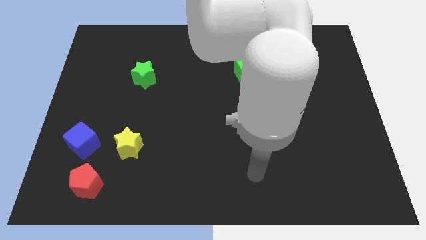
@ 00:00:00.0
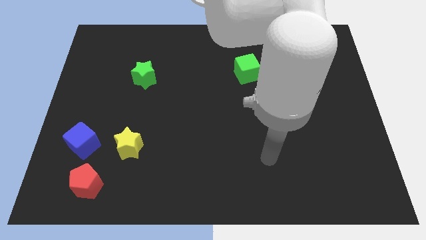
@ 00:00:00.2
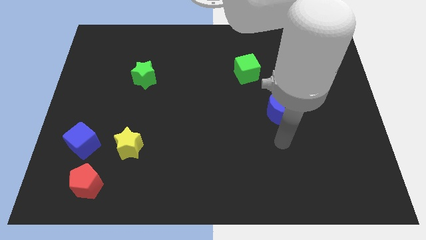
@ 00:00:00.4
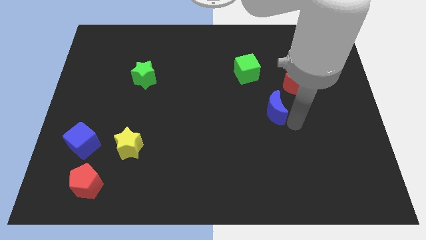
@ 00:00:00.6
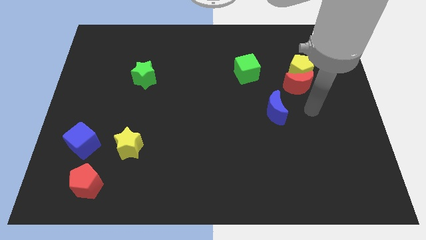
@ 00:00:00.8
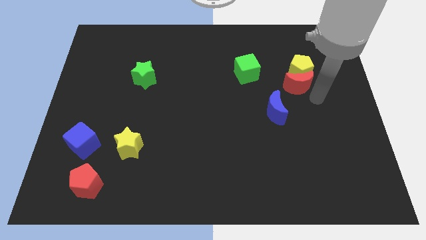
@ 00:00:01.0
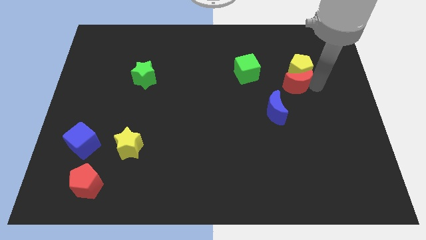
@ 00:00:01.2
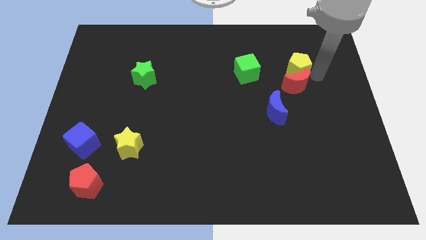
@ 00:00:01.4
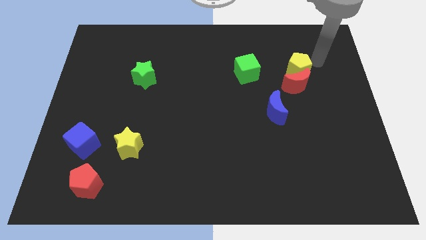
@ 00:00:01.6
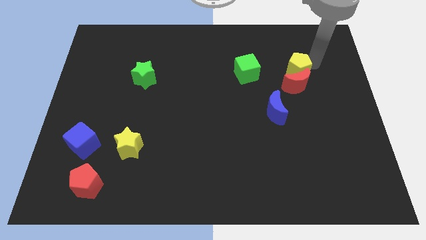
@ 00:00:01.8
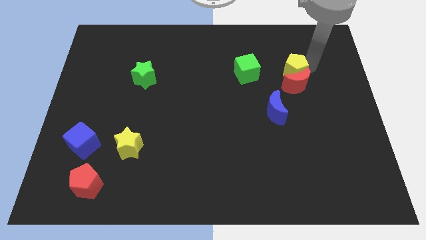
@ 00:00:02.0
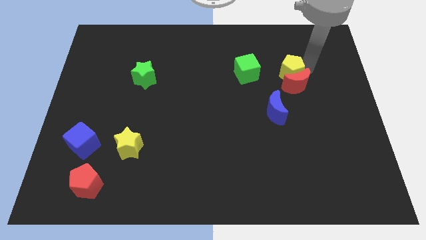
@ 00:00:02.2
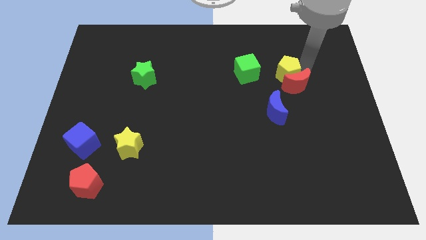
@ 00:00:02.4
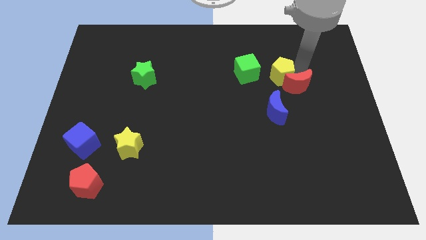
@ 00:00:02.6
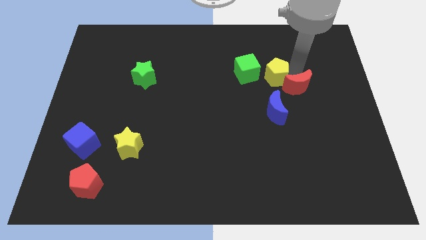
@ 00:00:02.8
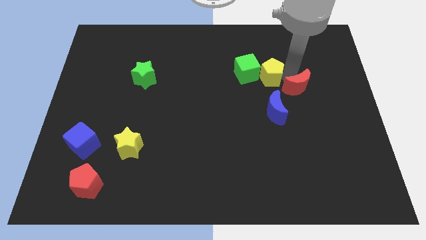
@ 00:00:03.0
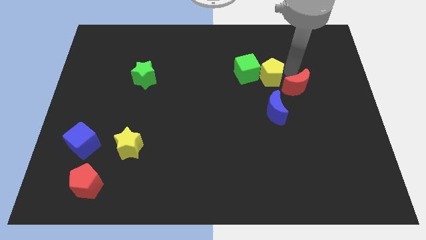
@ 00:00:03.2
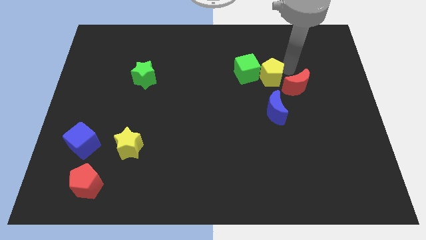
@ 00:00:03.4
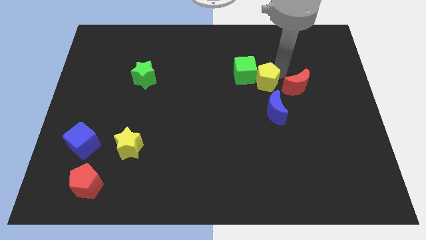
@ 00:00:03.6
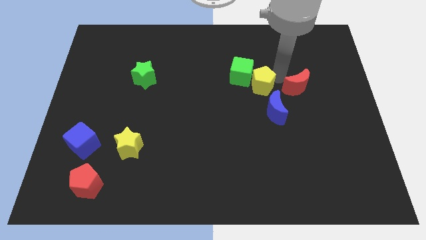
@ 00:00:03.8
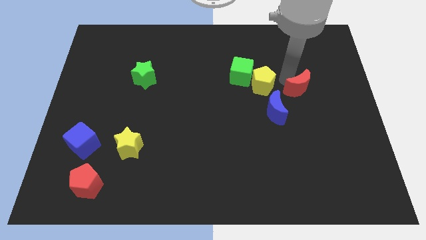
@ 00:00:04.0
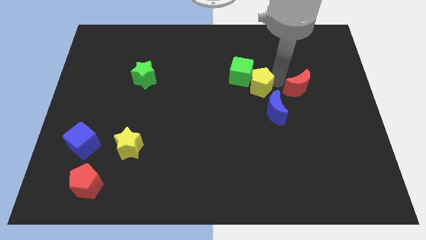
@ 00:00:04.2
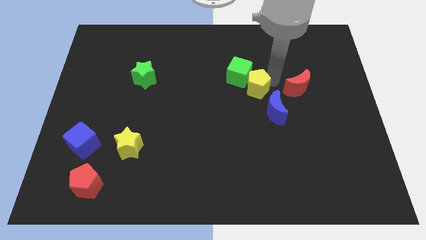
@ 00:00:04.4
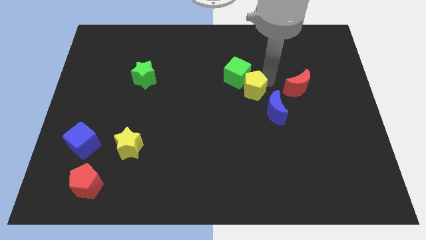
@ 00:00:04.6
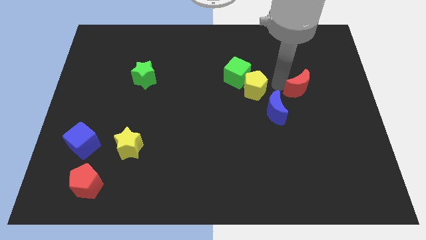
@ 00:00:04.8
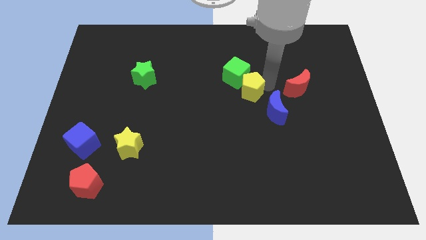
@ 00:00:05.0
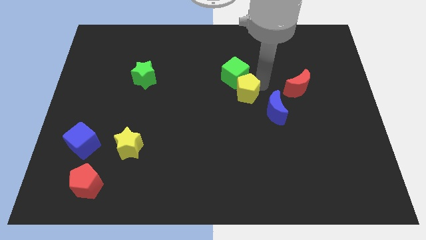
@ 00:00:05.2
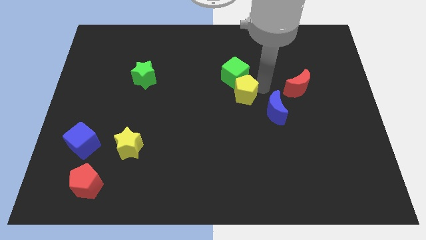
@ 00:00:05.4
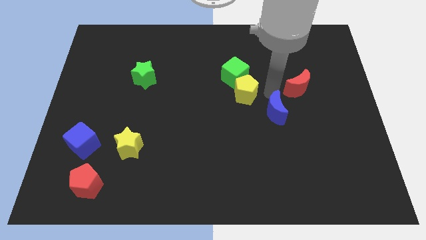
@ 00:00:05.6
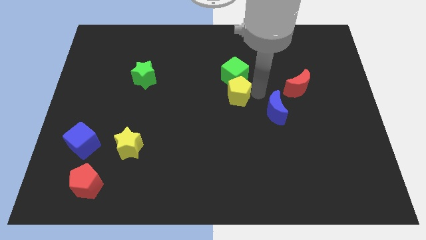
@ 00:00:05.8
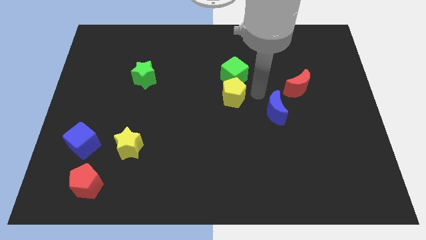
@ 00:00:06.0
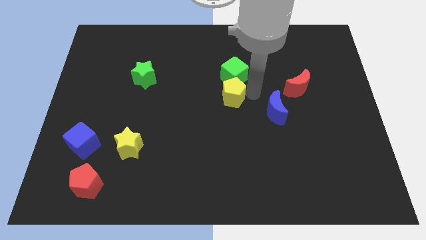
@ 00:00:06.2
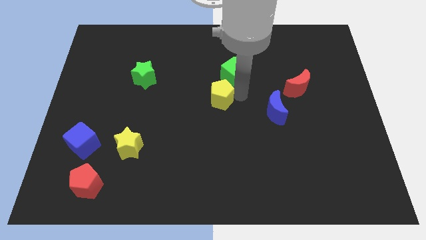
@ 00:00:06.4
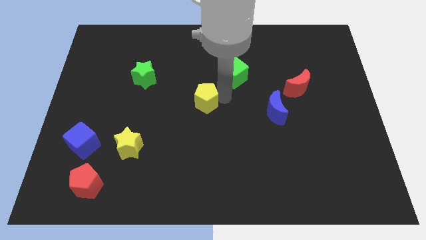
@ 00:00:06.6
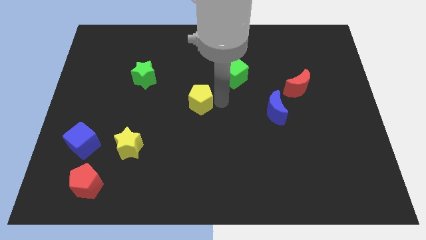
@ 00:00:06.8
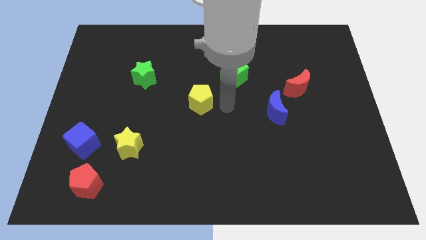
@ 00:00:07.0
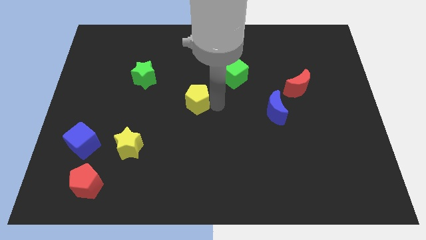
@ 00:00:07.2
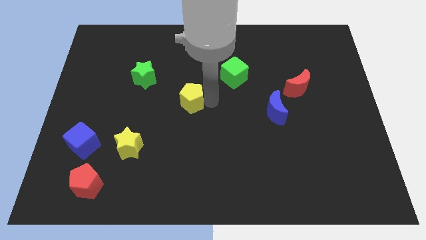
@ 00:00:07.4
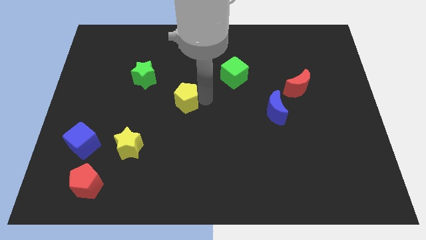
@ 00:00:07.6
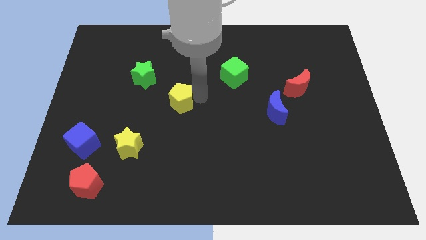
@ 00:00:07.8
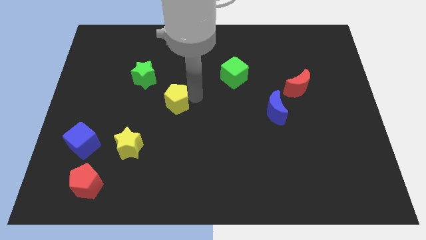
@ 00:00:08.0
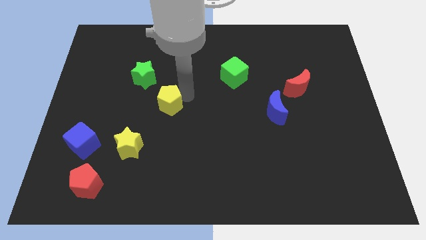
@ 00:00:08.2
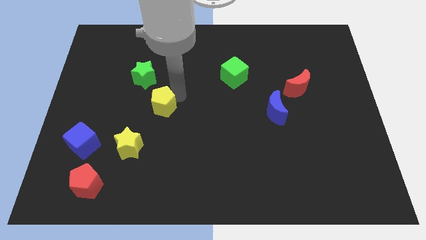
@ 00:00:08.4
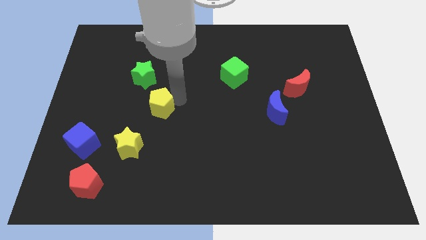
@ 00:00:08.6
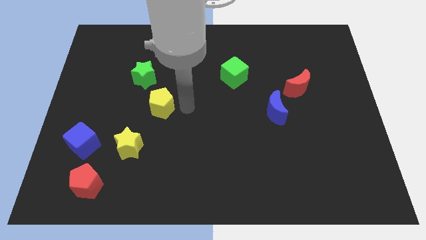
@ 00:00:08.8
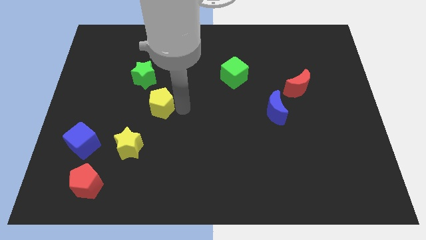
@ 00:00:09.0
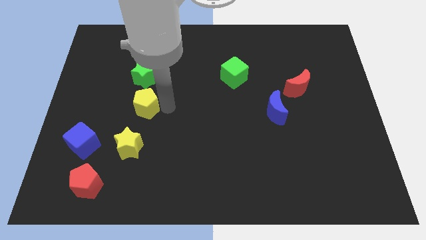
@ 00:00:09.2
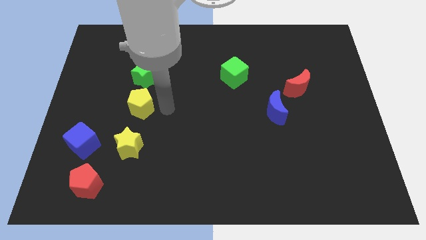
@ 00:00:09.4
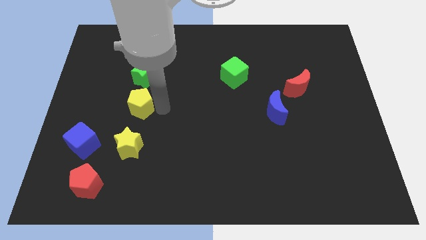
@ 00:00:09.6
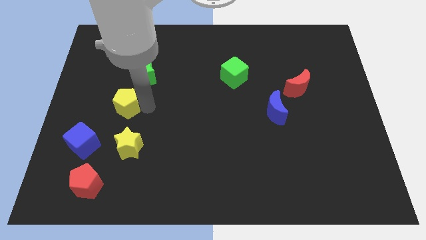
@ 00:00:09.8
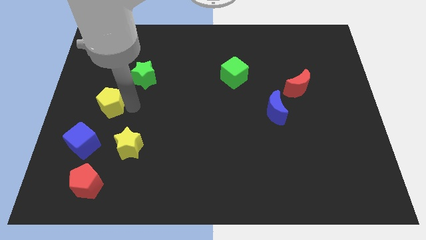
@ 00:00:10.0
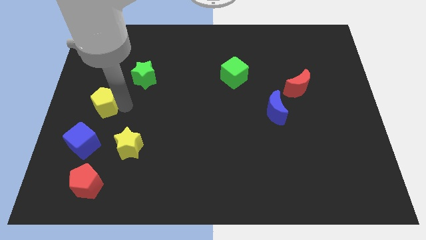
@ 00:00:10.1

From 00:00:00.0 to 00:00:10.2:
move the yellow pentagon to the left side of the board

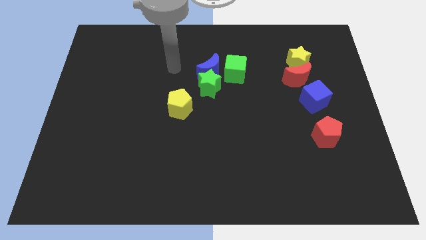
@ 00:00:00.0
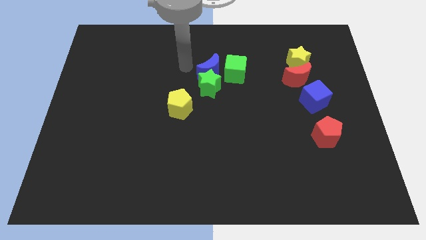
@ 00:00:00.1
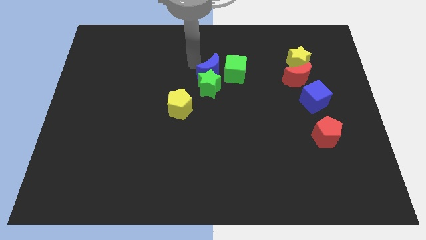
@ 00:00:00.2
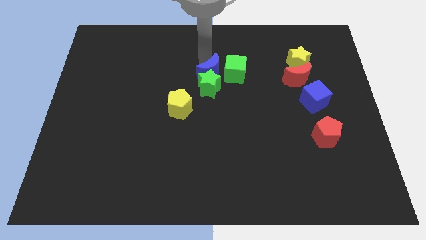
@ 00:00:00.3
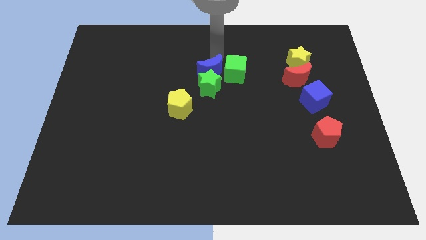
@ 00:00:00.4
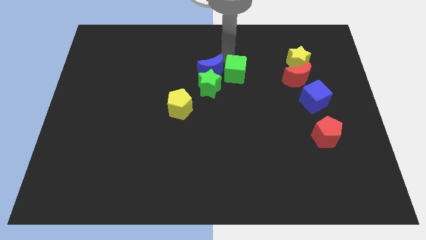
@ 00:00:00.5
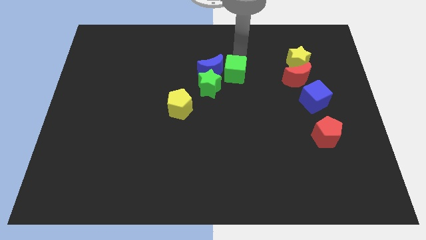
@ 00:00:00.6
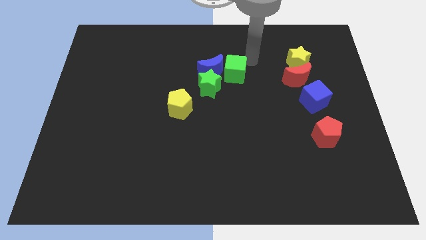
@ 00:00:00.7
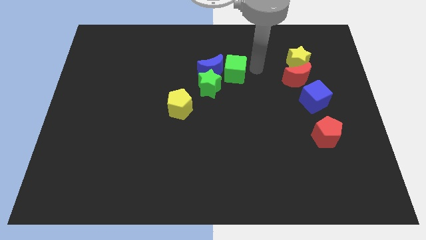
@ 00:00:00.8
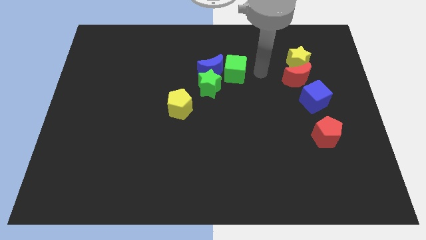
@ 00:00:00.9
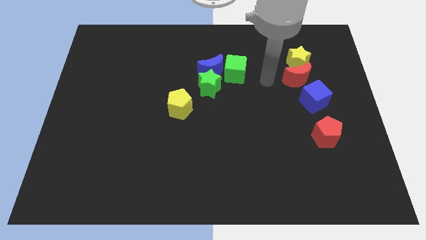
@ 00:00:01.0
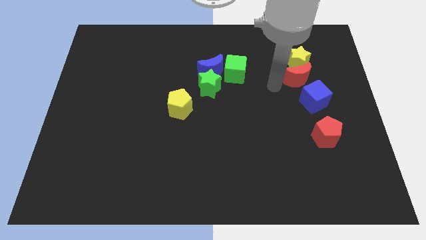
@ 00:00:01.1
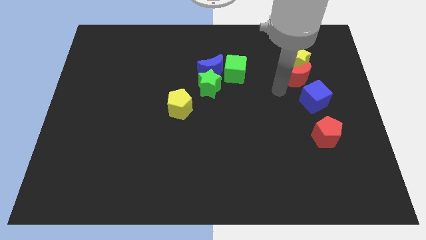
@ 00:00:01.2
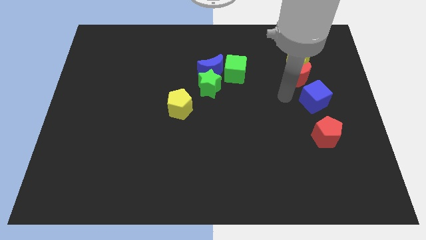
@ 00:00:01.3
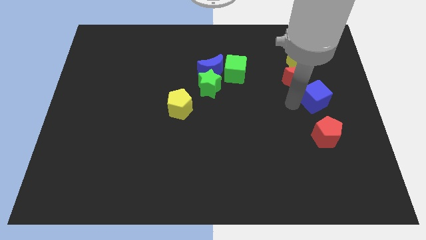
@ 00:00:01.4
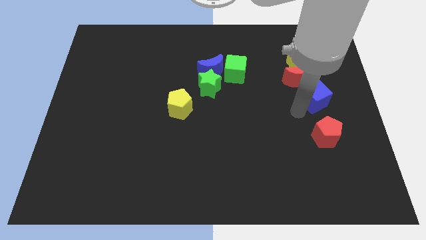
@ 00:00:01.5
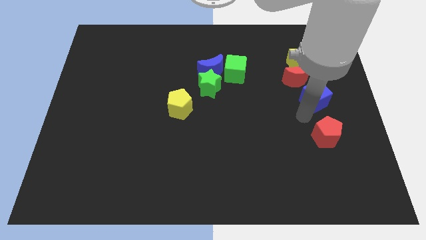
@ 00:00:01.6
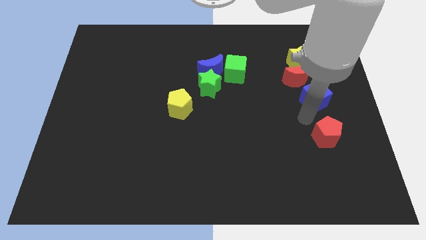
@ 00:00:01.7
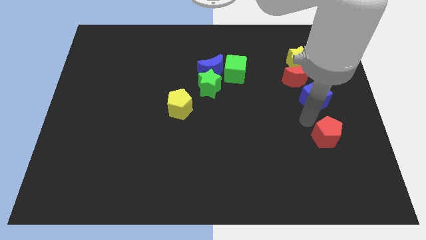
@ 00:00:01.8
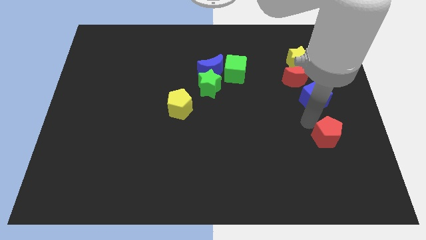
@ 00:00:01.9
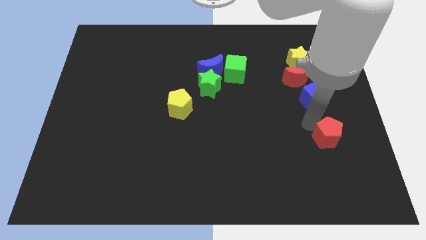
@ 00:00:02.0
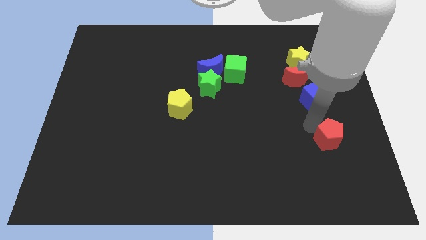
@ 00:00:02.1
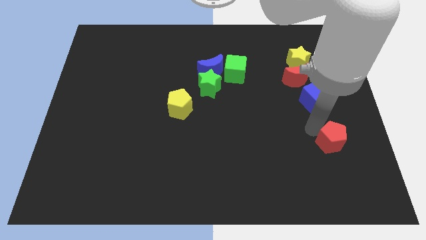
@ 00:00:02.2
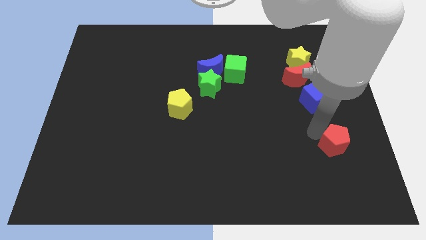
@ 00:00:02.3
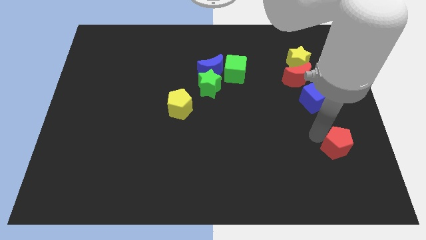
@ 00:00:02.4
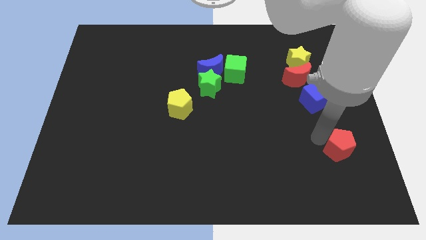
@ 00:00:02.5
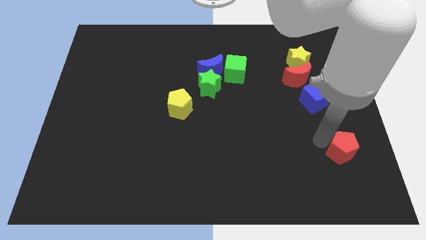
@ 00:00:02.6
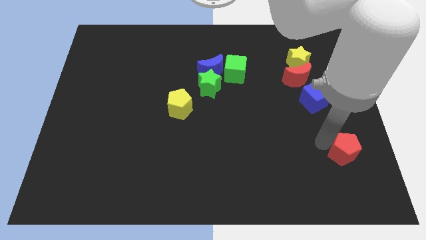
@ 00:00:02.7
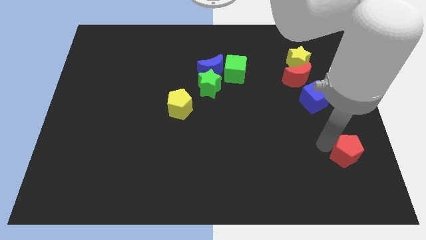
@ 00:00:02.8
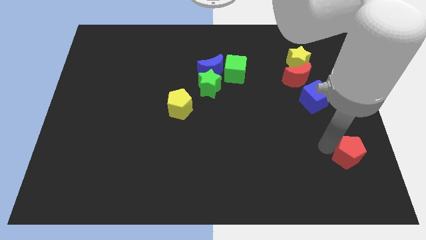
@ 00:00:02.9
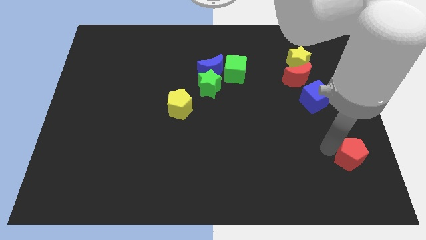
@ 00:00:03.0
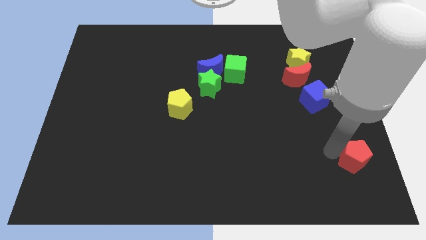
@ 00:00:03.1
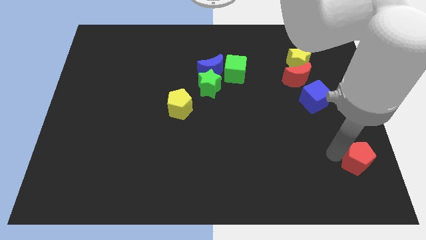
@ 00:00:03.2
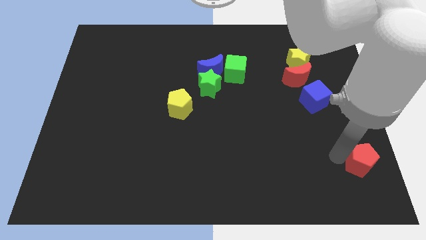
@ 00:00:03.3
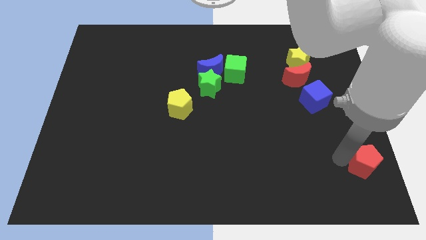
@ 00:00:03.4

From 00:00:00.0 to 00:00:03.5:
move the red pentagon to the bottom right
